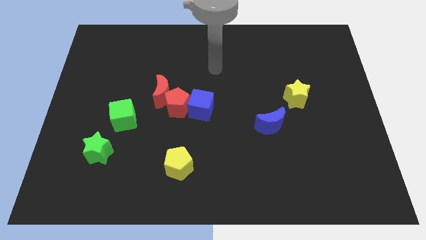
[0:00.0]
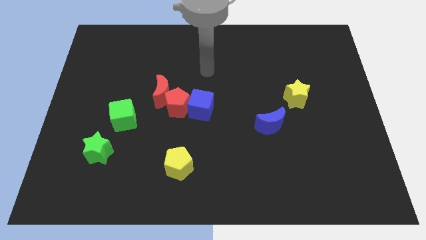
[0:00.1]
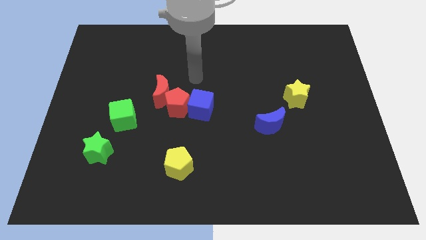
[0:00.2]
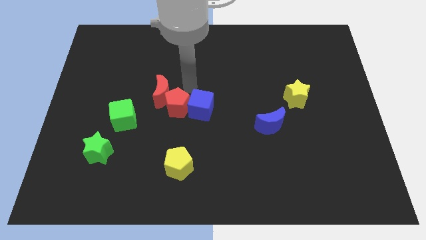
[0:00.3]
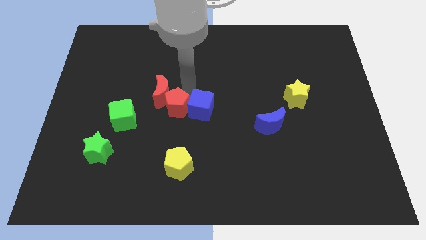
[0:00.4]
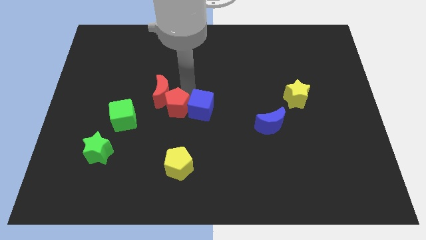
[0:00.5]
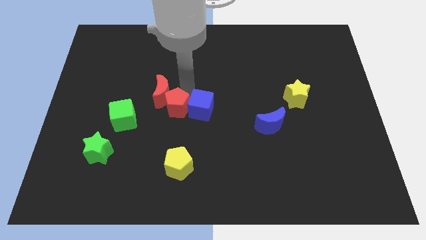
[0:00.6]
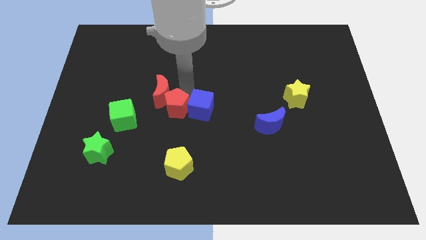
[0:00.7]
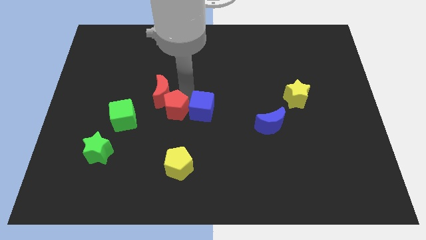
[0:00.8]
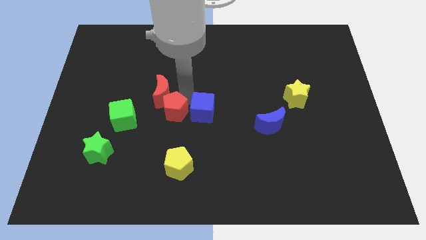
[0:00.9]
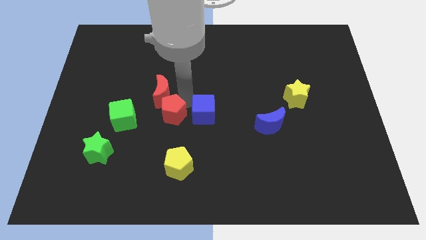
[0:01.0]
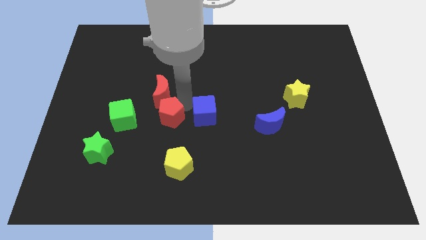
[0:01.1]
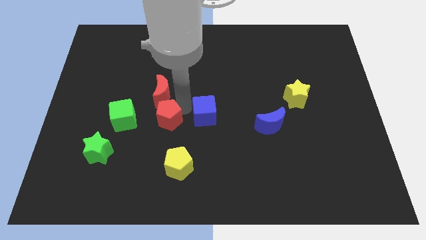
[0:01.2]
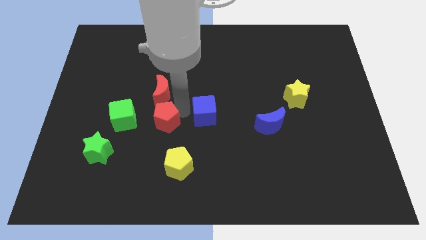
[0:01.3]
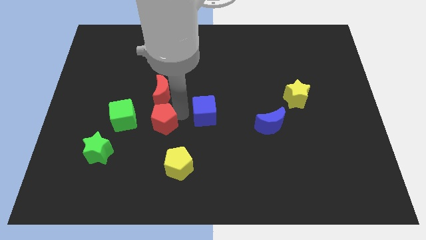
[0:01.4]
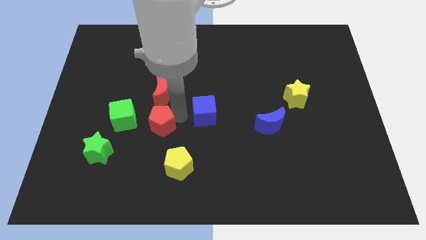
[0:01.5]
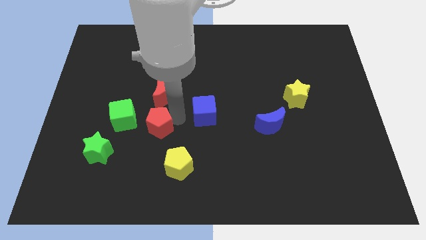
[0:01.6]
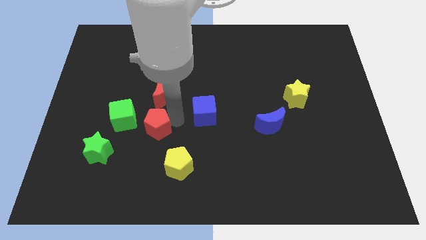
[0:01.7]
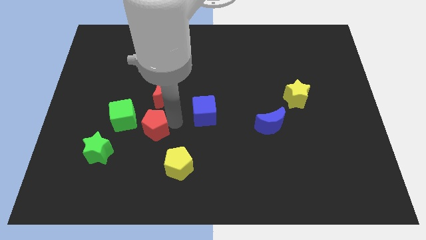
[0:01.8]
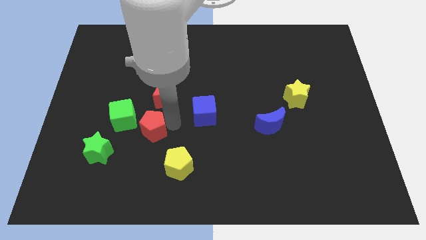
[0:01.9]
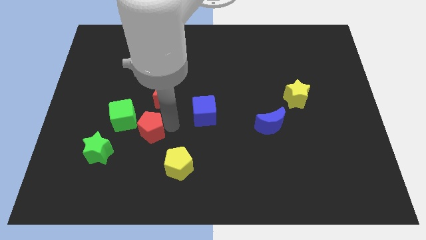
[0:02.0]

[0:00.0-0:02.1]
pull the red pentagon apart from the red moon and blue cube

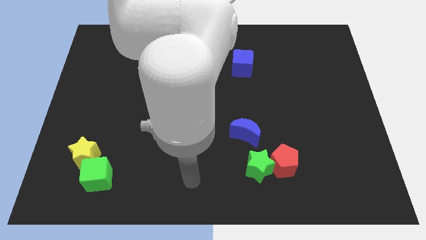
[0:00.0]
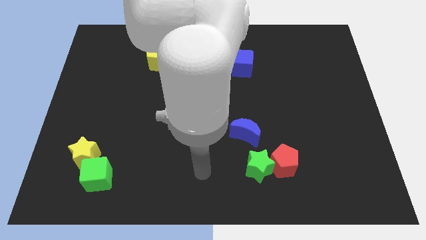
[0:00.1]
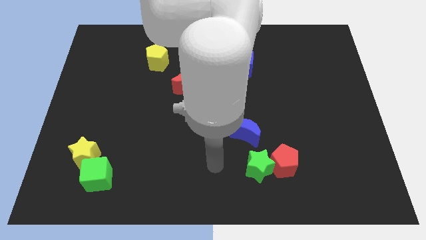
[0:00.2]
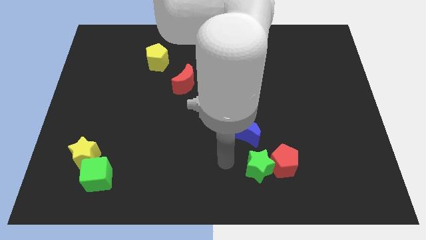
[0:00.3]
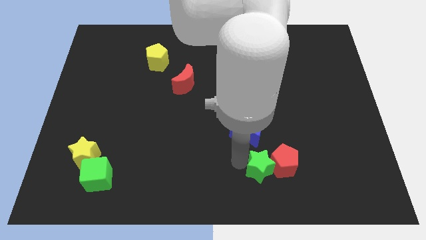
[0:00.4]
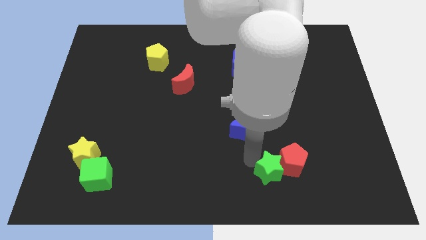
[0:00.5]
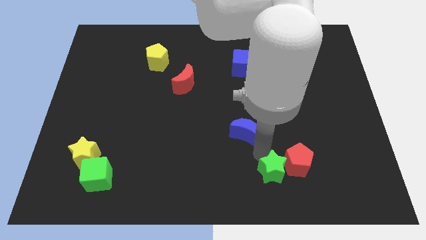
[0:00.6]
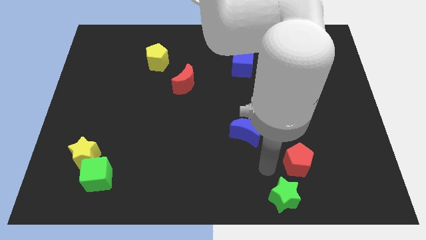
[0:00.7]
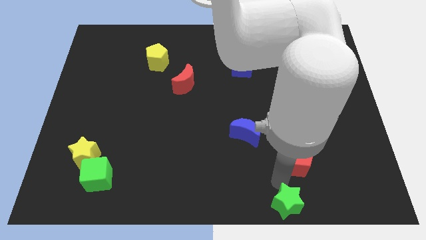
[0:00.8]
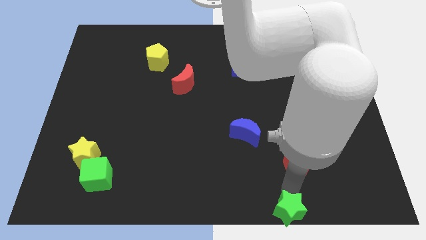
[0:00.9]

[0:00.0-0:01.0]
separate the red pentagon from the green star

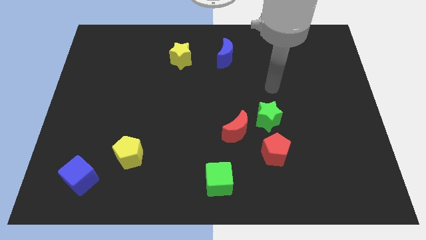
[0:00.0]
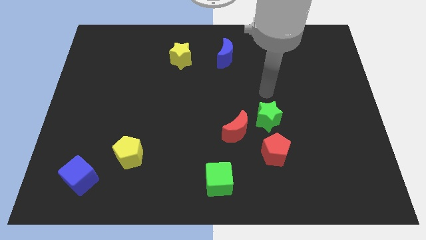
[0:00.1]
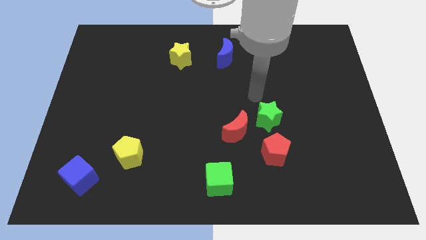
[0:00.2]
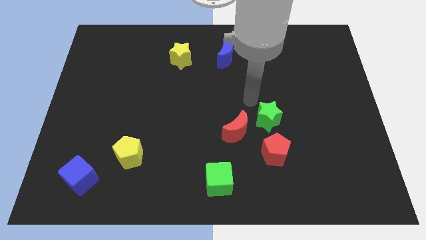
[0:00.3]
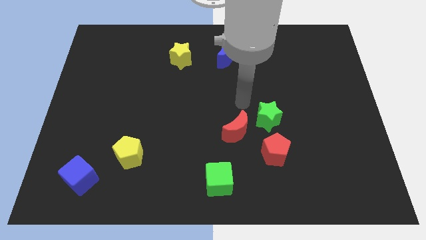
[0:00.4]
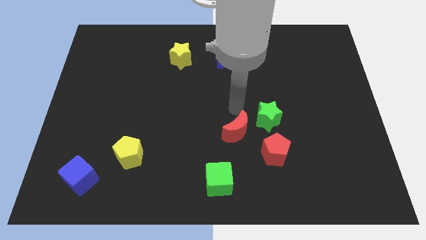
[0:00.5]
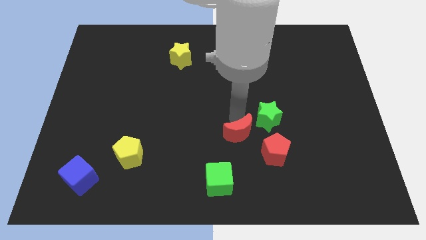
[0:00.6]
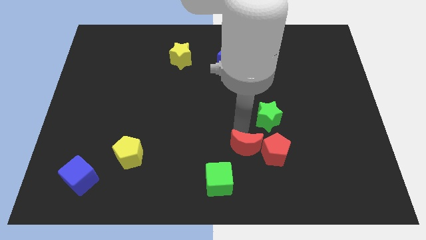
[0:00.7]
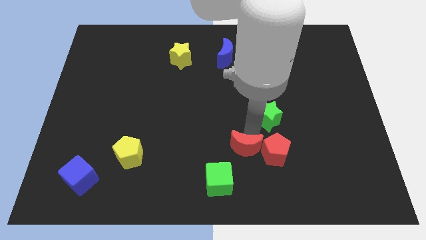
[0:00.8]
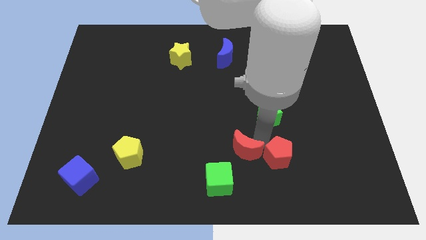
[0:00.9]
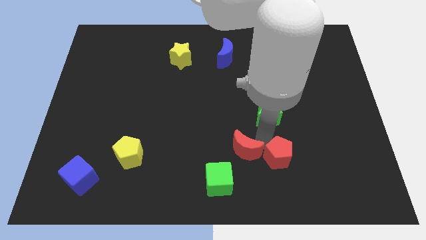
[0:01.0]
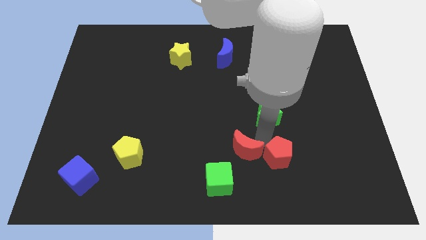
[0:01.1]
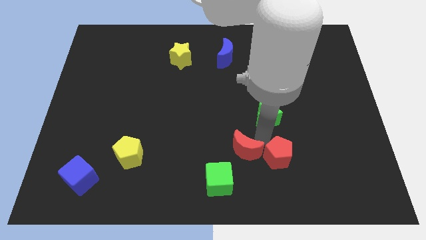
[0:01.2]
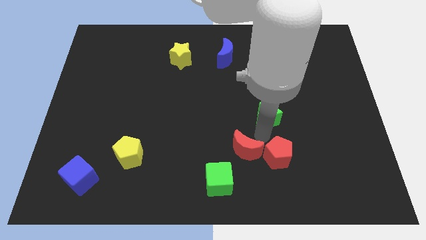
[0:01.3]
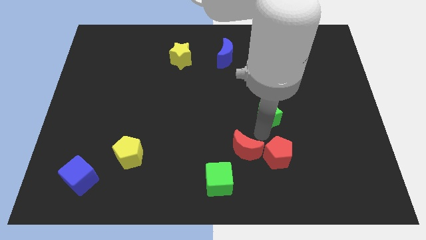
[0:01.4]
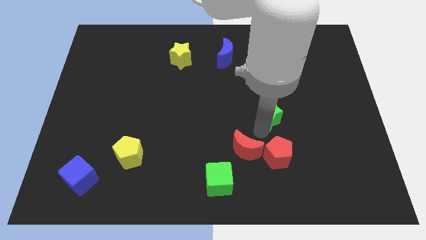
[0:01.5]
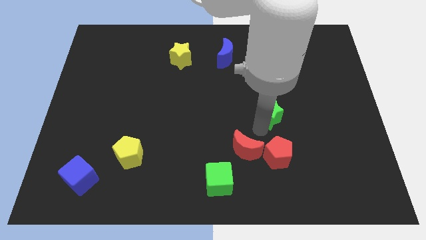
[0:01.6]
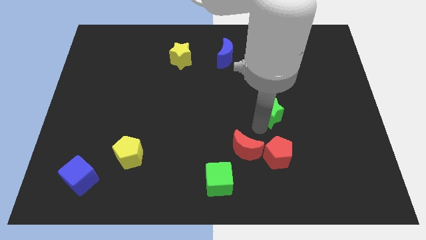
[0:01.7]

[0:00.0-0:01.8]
move the green star away from the red moon and red pentagon

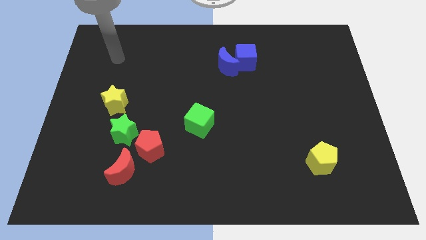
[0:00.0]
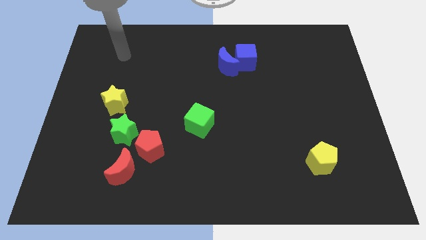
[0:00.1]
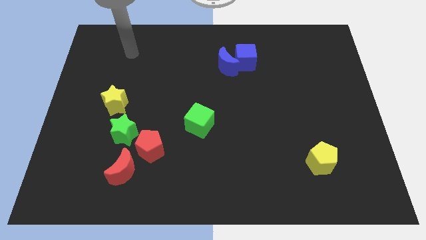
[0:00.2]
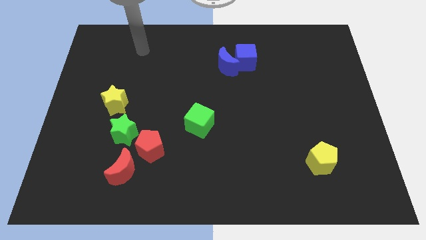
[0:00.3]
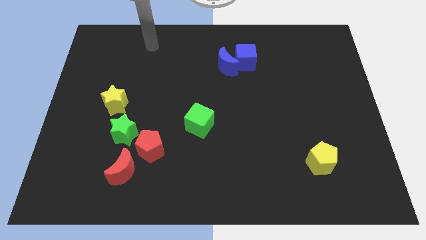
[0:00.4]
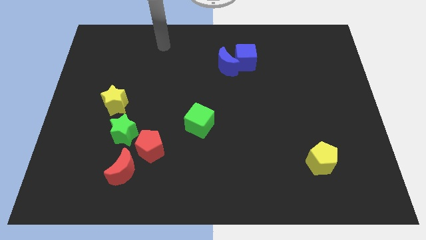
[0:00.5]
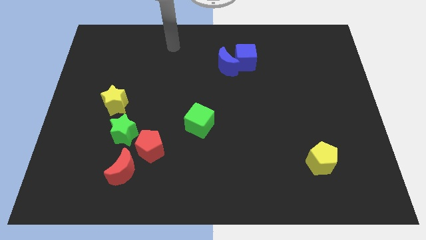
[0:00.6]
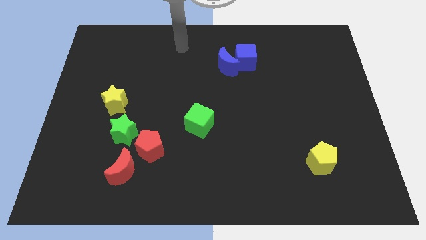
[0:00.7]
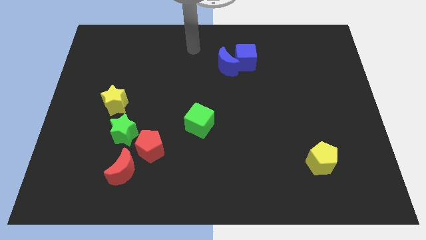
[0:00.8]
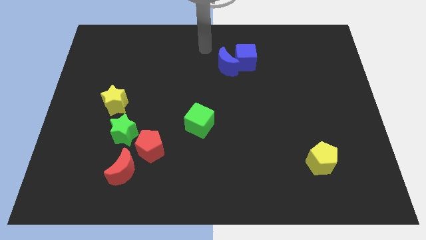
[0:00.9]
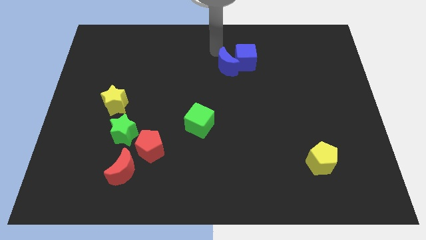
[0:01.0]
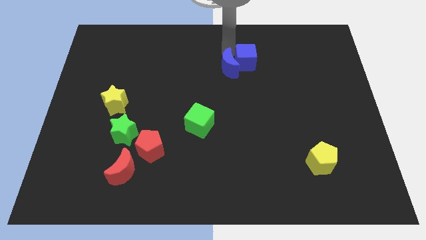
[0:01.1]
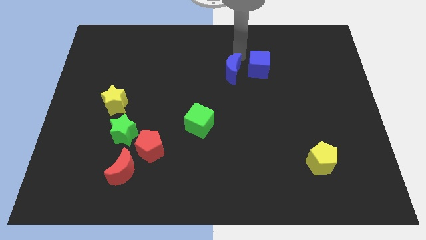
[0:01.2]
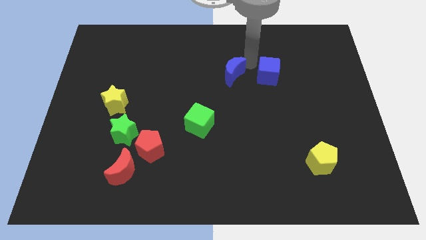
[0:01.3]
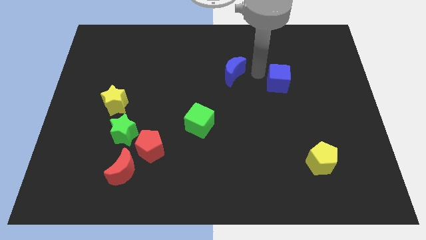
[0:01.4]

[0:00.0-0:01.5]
pull the blue moon apart from the blue cube

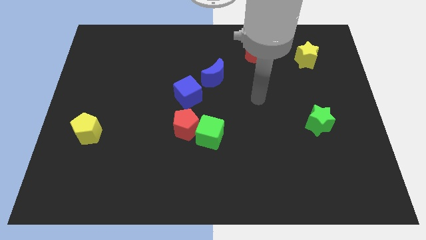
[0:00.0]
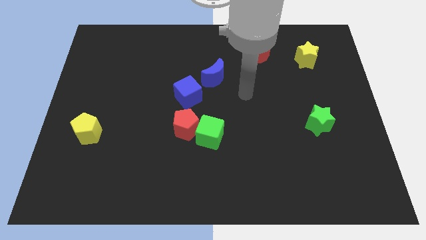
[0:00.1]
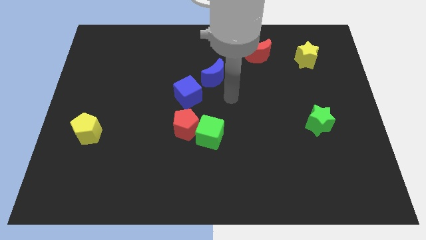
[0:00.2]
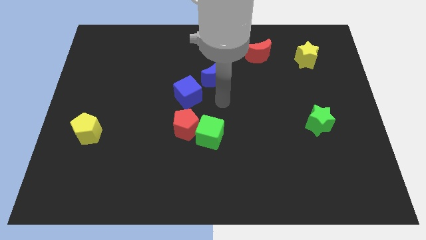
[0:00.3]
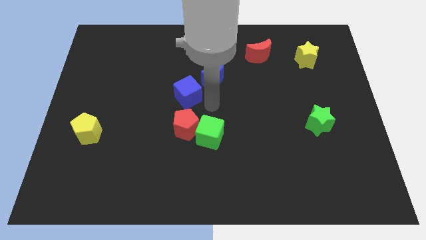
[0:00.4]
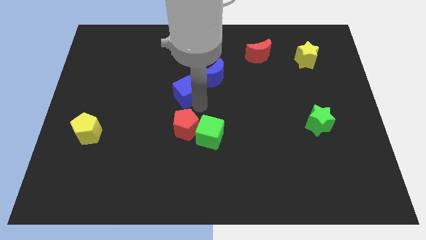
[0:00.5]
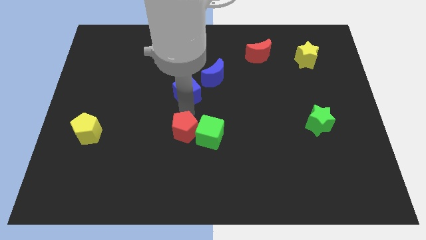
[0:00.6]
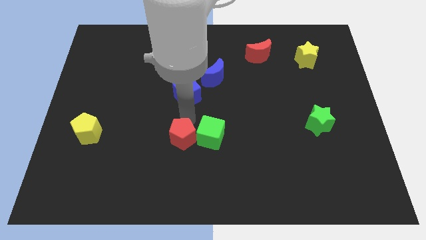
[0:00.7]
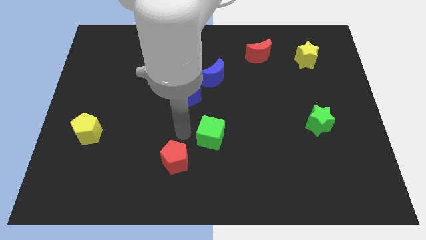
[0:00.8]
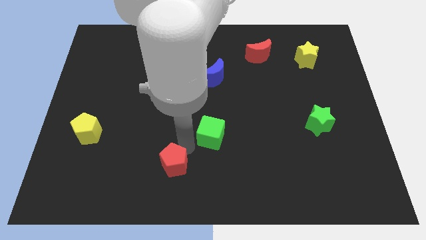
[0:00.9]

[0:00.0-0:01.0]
separate the green cube from the red pentagon

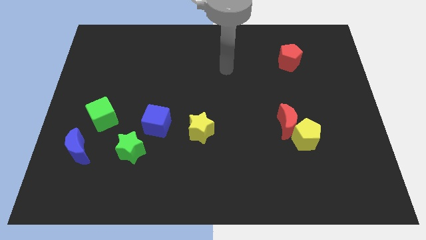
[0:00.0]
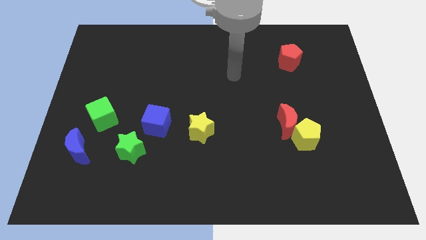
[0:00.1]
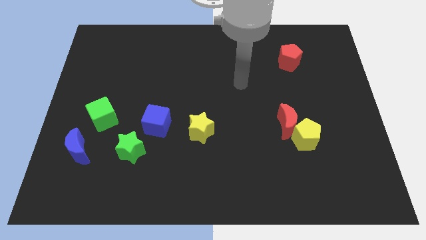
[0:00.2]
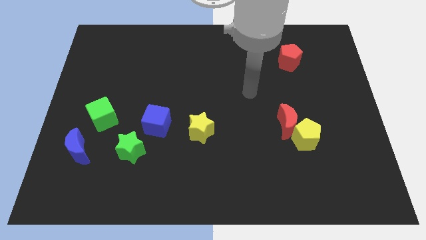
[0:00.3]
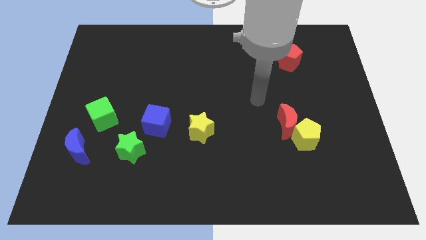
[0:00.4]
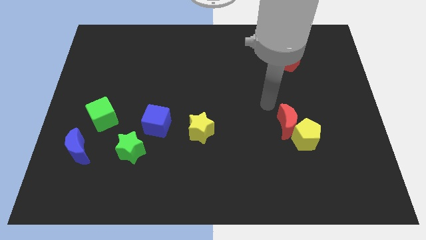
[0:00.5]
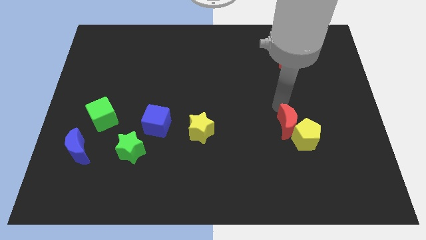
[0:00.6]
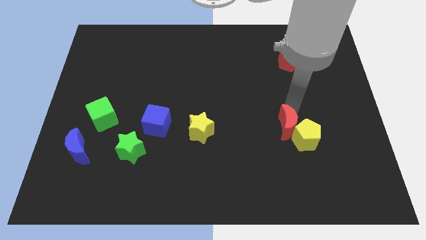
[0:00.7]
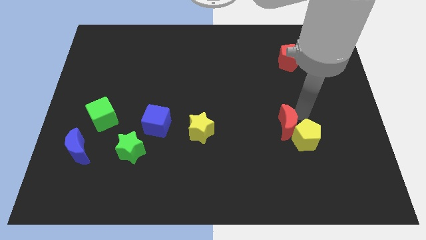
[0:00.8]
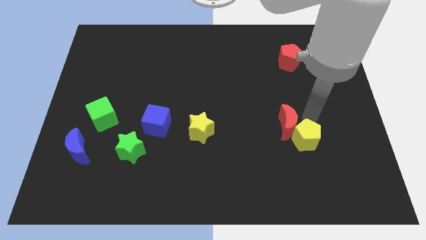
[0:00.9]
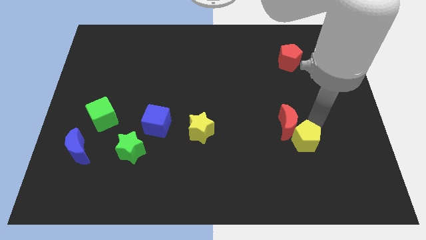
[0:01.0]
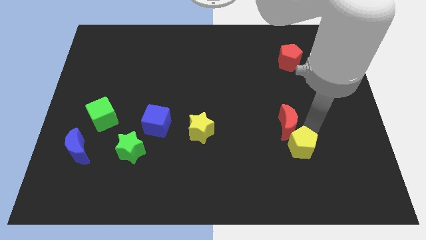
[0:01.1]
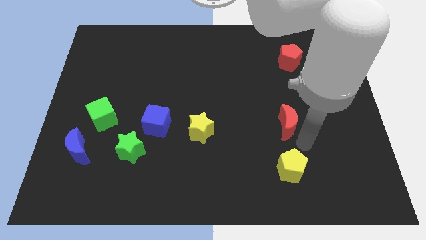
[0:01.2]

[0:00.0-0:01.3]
pull the red moon apart from the yellow pentagon

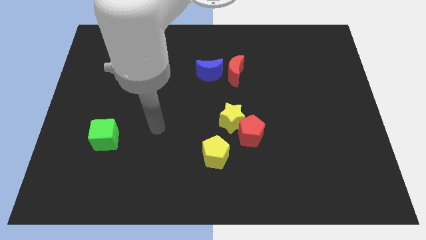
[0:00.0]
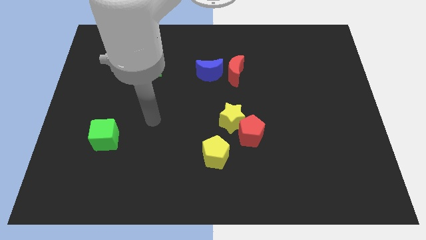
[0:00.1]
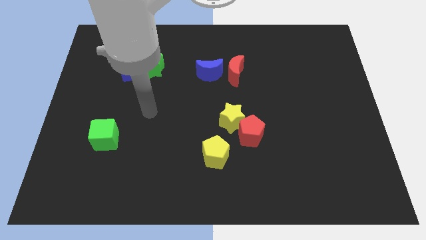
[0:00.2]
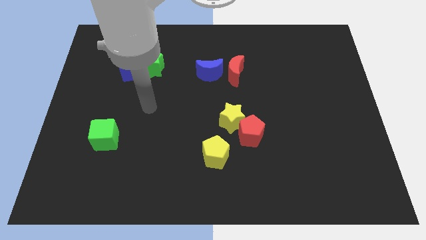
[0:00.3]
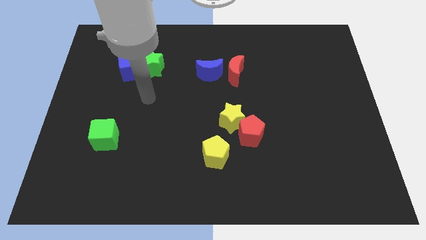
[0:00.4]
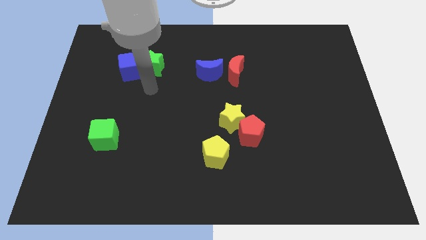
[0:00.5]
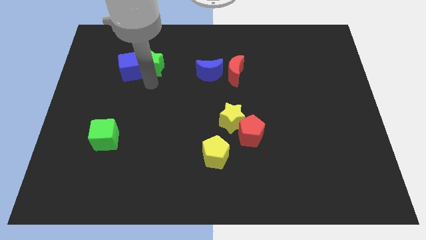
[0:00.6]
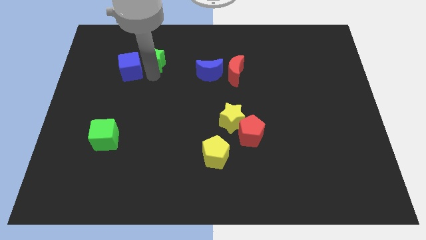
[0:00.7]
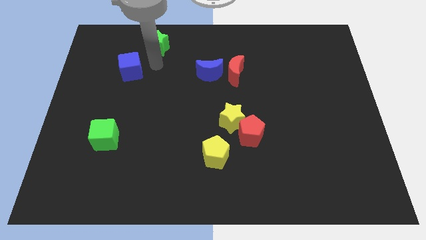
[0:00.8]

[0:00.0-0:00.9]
separate the blue cube from the green star
